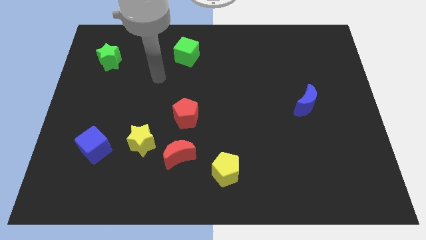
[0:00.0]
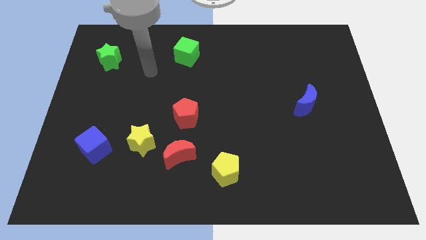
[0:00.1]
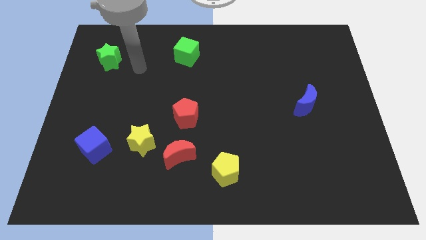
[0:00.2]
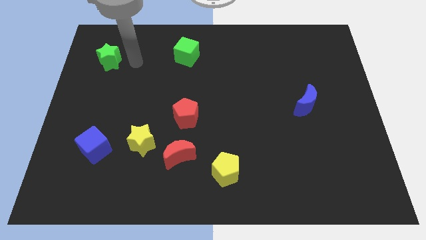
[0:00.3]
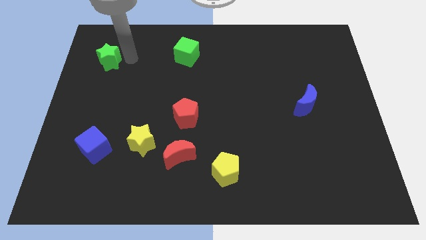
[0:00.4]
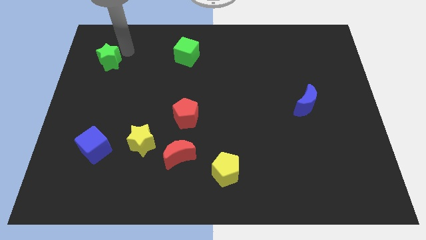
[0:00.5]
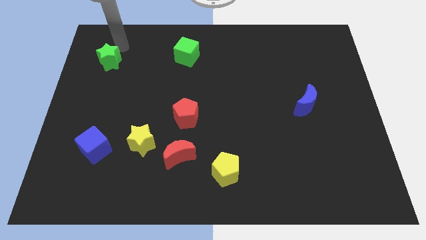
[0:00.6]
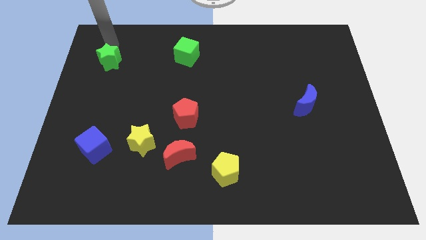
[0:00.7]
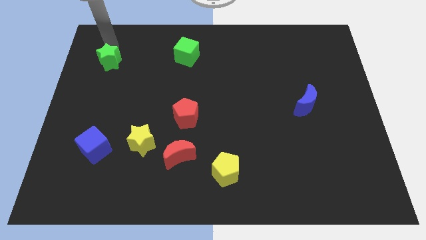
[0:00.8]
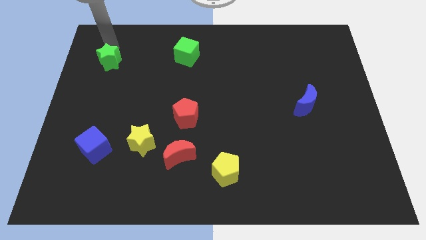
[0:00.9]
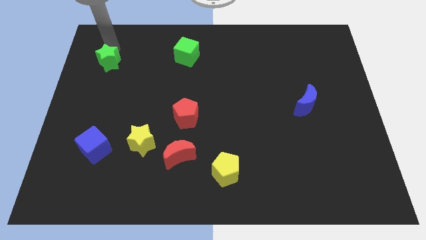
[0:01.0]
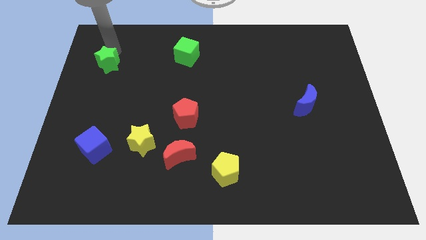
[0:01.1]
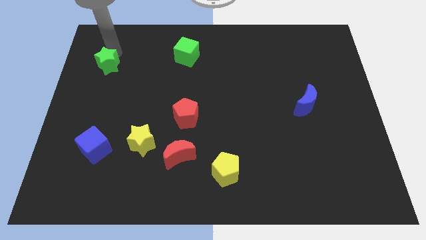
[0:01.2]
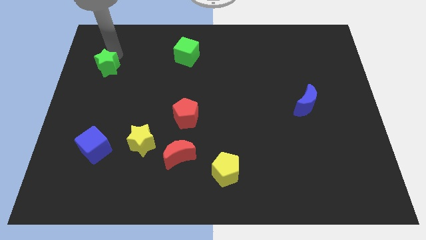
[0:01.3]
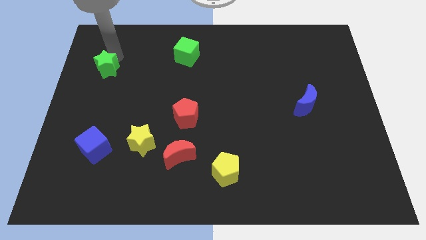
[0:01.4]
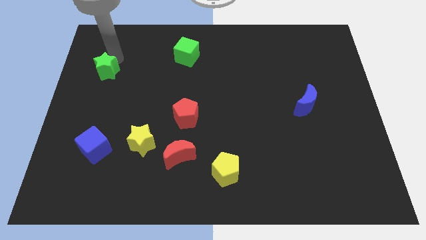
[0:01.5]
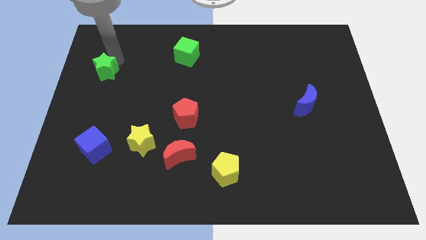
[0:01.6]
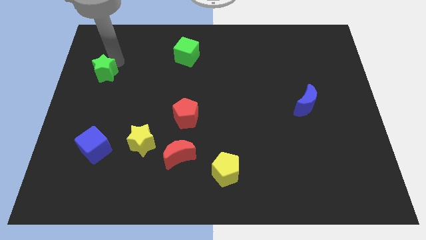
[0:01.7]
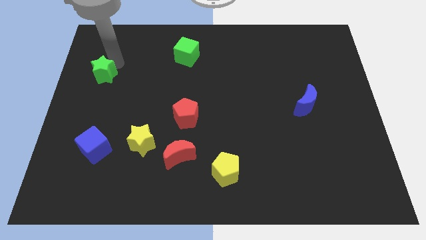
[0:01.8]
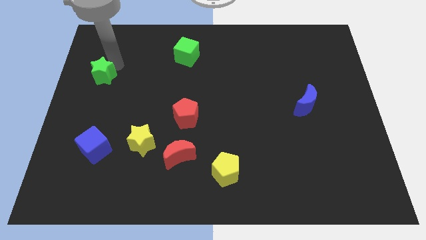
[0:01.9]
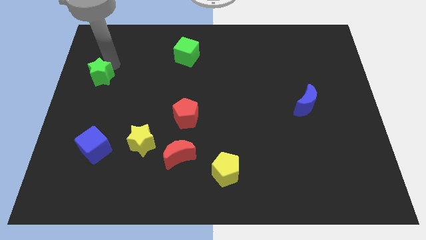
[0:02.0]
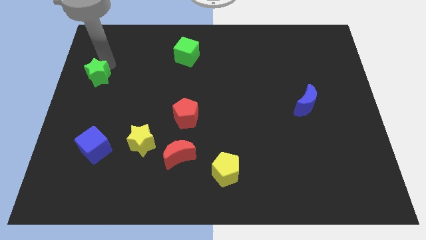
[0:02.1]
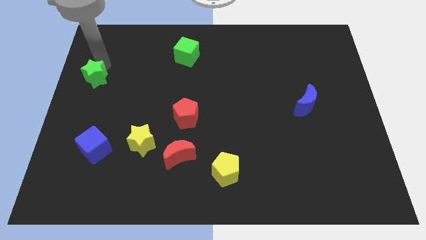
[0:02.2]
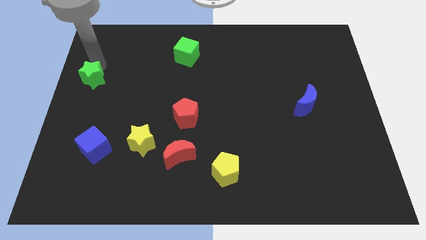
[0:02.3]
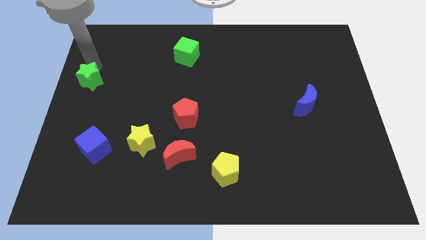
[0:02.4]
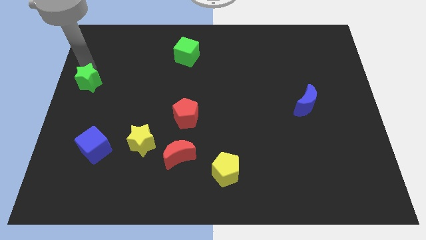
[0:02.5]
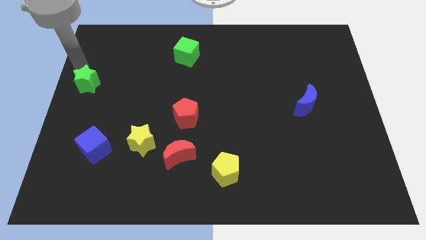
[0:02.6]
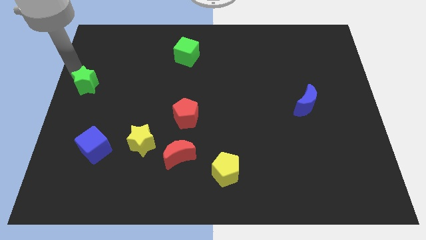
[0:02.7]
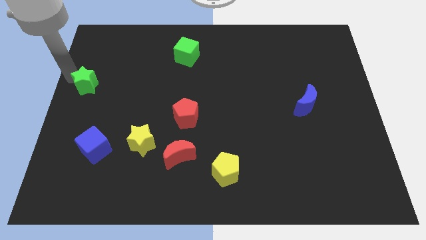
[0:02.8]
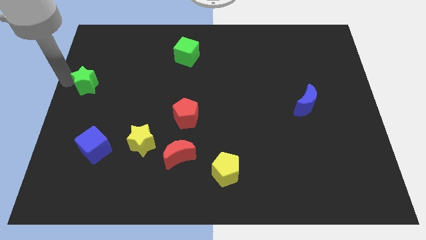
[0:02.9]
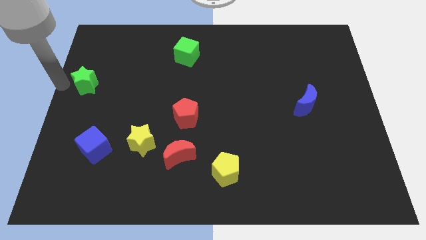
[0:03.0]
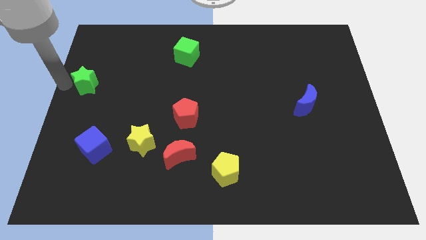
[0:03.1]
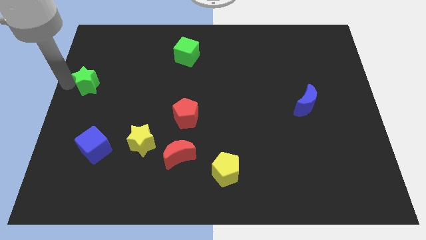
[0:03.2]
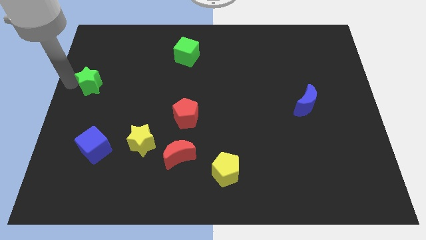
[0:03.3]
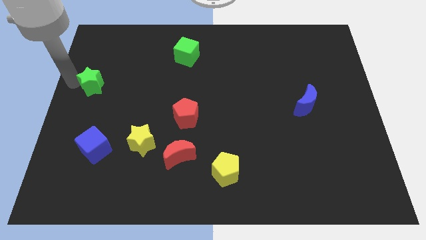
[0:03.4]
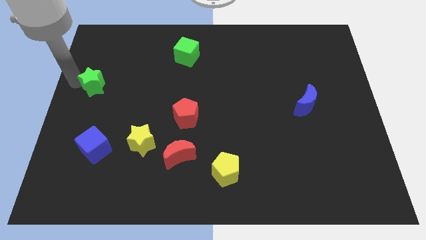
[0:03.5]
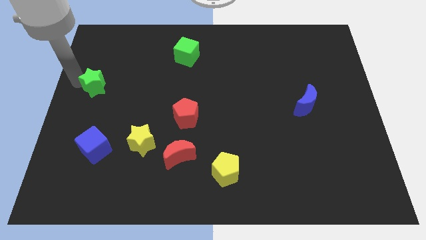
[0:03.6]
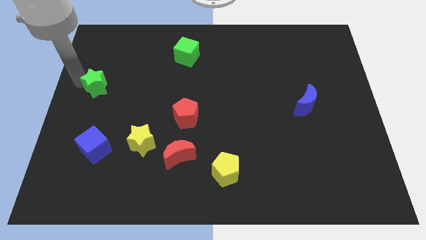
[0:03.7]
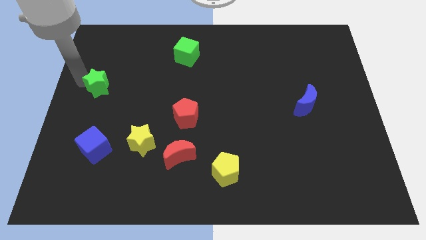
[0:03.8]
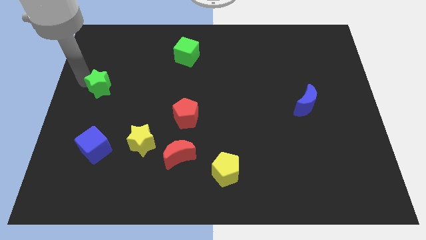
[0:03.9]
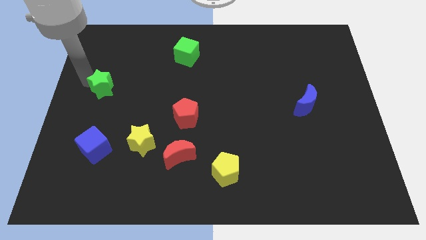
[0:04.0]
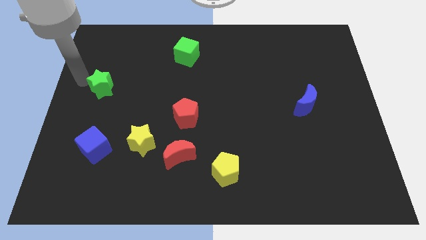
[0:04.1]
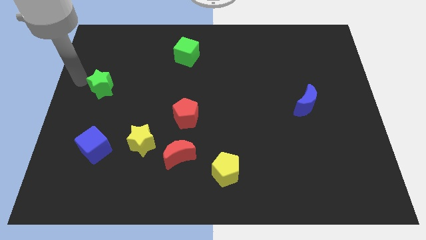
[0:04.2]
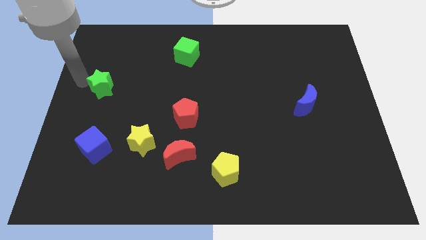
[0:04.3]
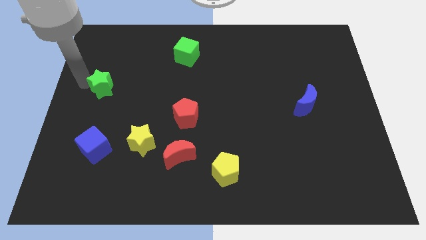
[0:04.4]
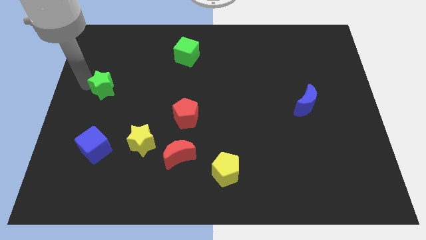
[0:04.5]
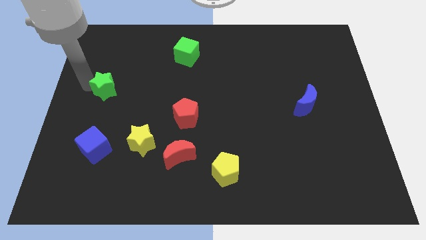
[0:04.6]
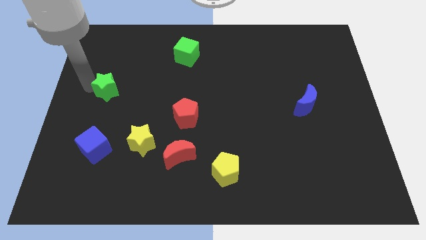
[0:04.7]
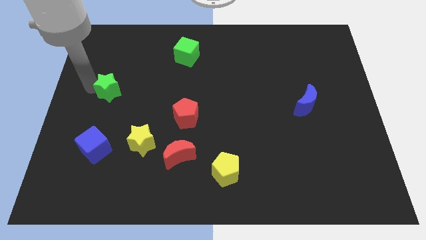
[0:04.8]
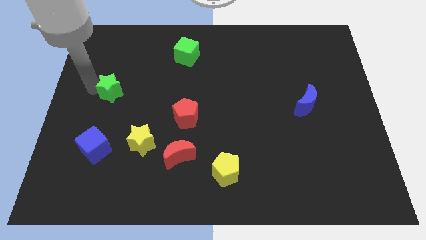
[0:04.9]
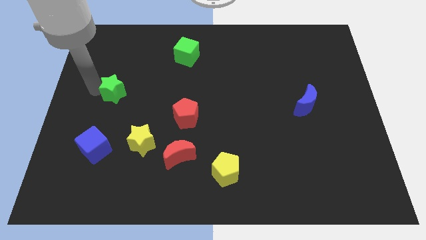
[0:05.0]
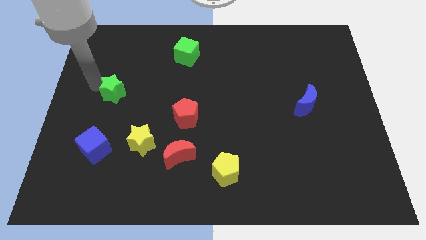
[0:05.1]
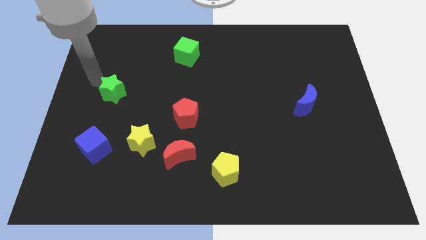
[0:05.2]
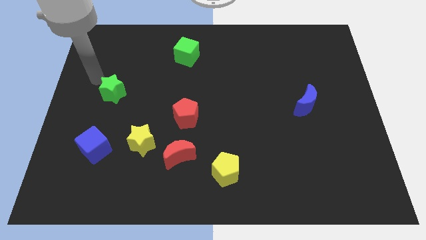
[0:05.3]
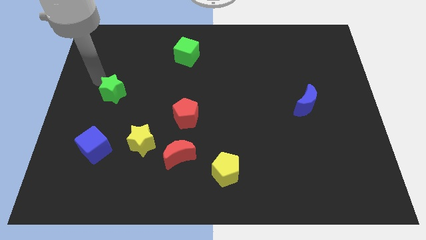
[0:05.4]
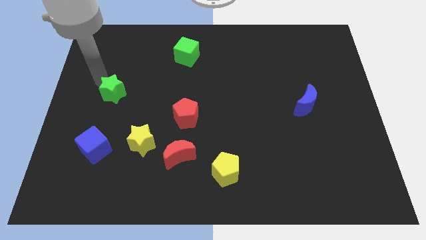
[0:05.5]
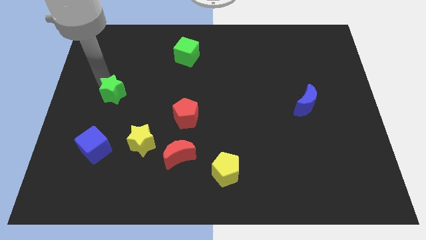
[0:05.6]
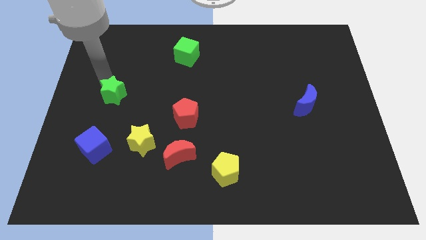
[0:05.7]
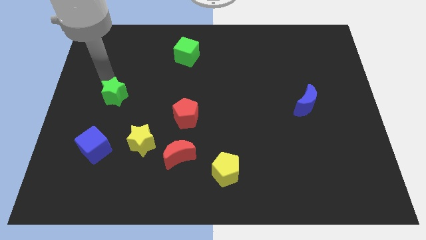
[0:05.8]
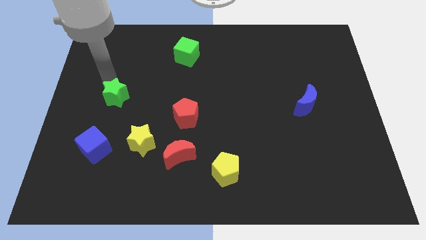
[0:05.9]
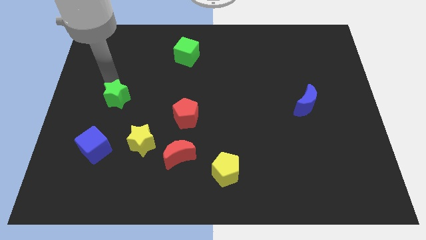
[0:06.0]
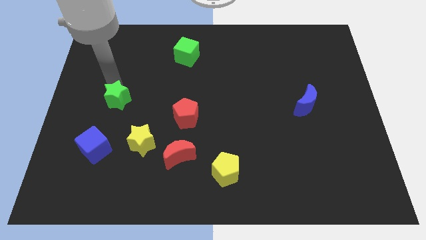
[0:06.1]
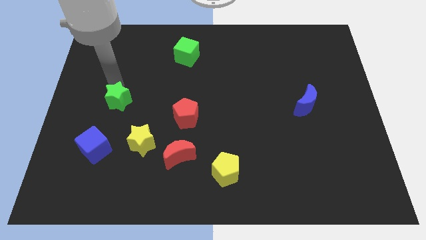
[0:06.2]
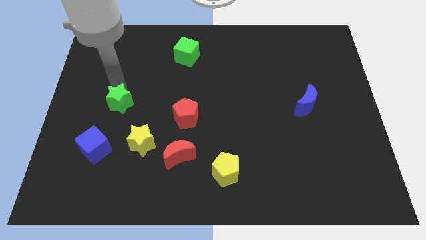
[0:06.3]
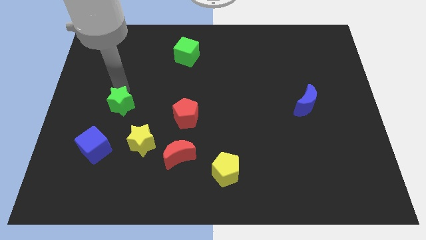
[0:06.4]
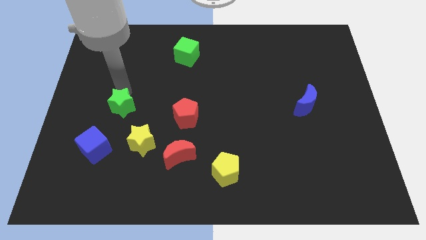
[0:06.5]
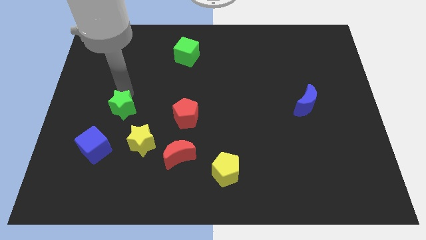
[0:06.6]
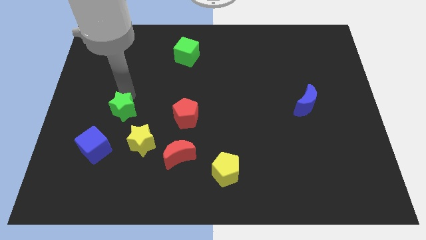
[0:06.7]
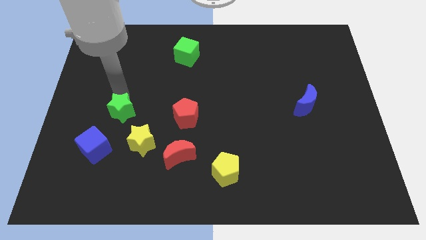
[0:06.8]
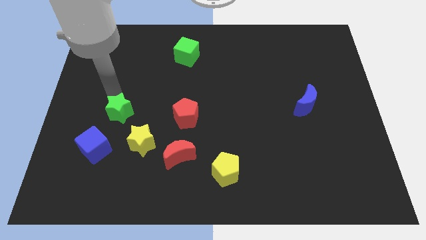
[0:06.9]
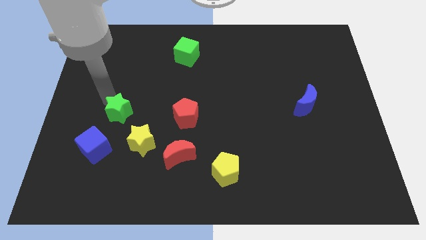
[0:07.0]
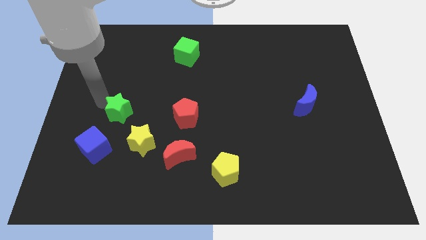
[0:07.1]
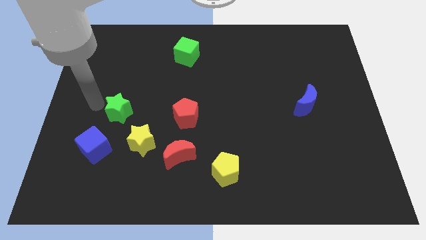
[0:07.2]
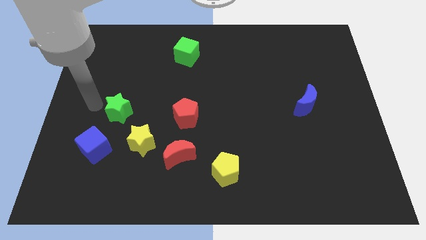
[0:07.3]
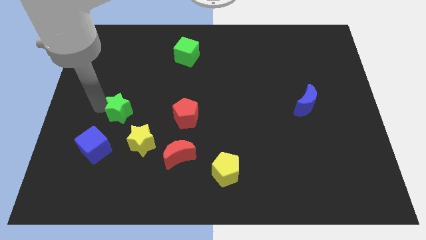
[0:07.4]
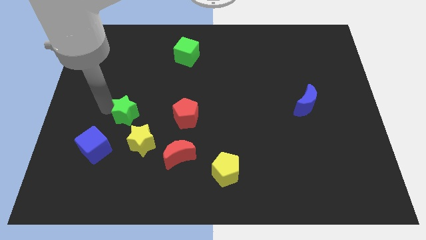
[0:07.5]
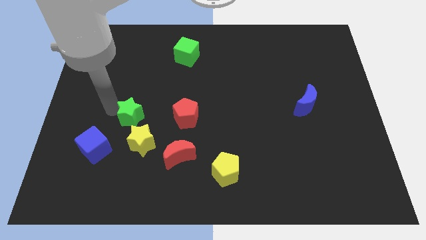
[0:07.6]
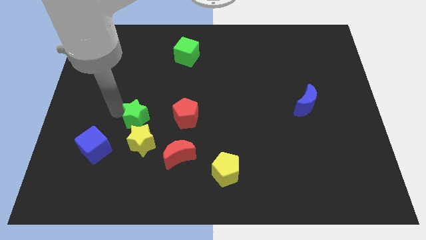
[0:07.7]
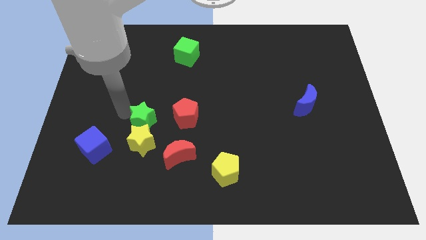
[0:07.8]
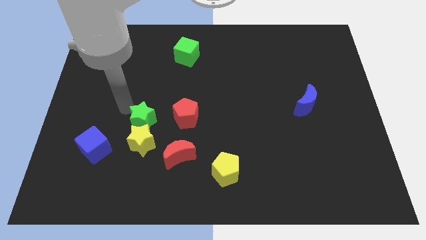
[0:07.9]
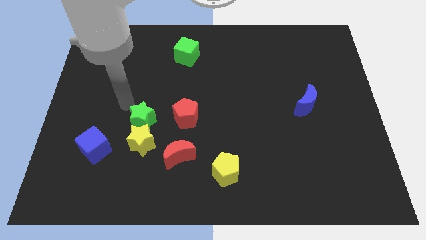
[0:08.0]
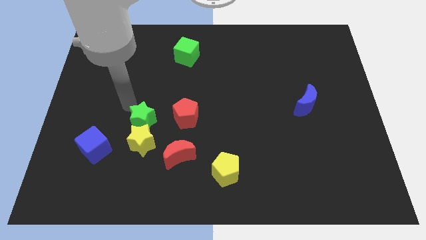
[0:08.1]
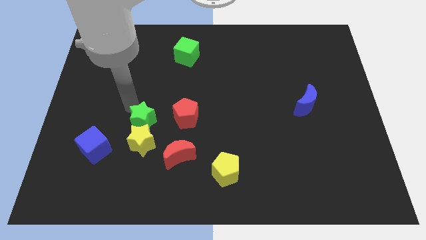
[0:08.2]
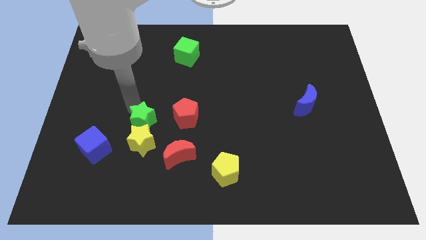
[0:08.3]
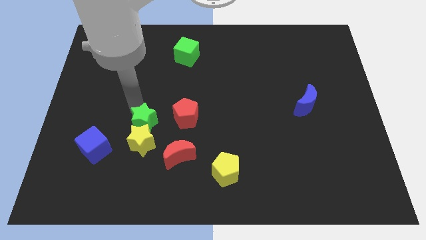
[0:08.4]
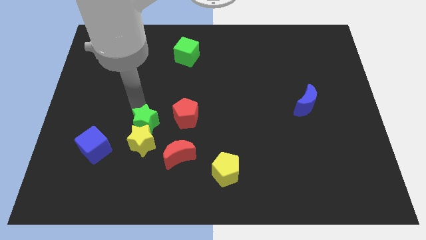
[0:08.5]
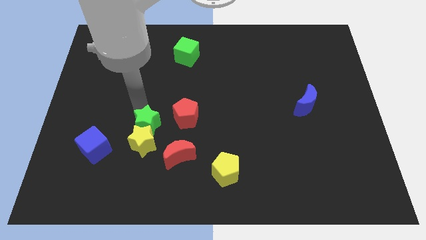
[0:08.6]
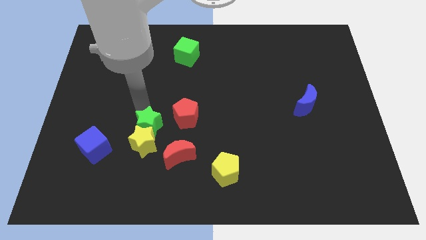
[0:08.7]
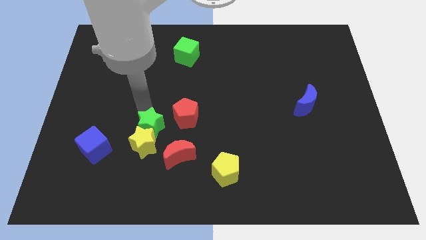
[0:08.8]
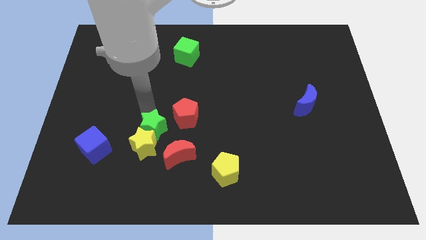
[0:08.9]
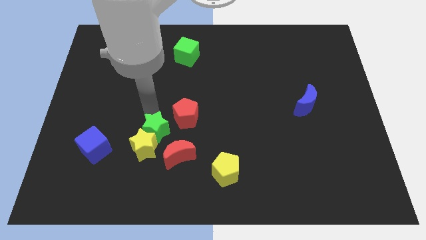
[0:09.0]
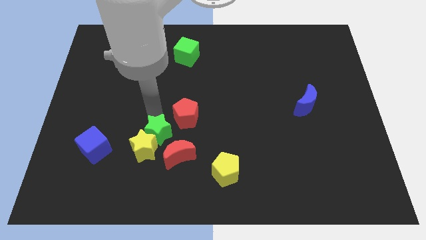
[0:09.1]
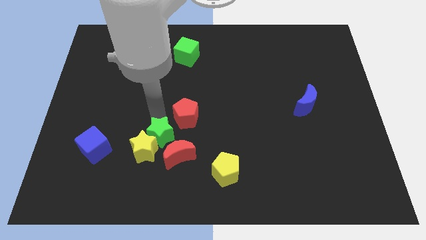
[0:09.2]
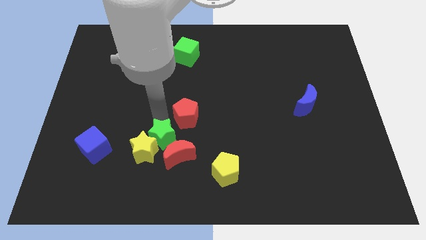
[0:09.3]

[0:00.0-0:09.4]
slide the green star to the red moon
